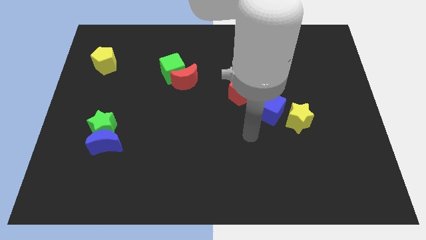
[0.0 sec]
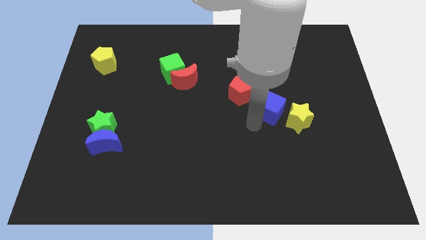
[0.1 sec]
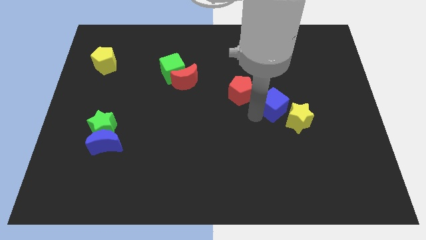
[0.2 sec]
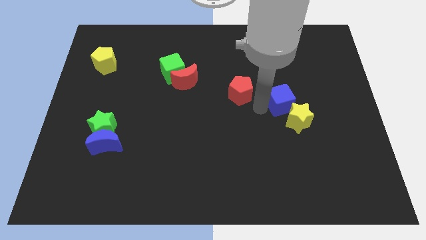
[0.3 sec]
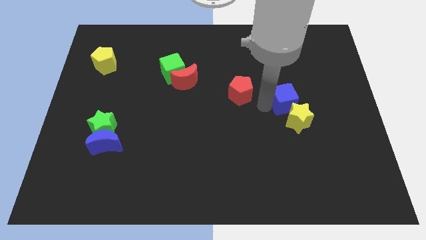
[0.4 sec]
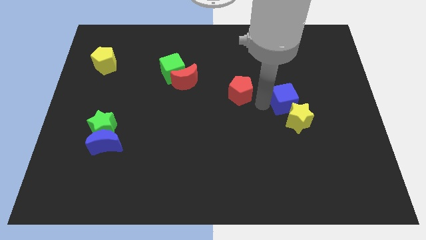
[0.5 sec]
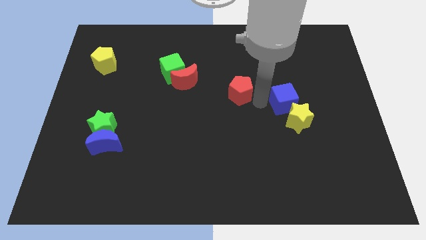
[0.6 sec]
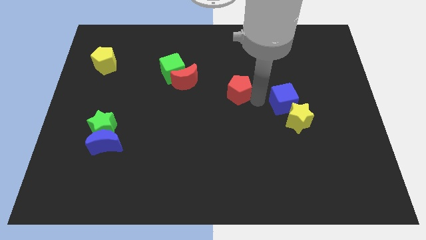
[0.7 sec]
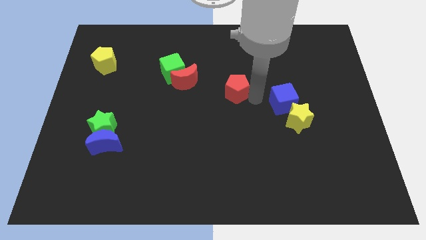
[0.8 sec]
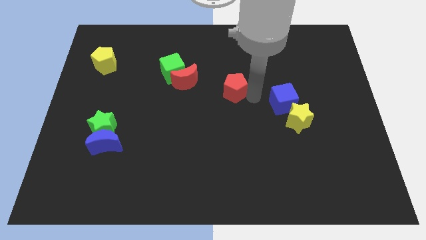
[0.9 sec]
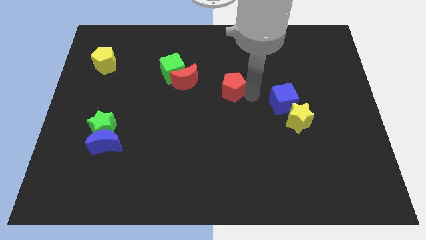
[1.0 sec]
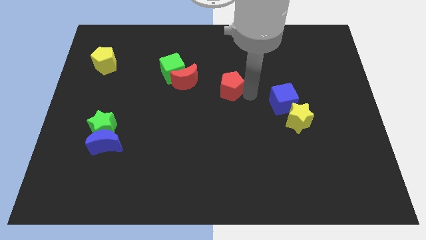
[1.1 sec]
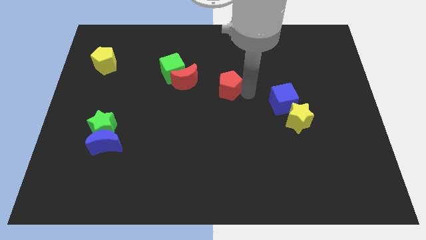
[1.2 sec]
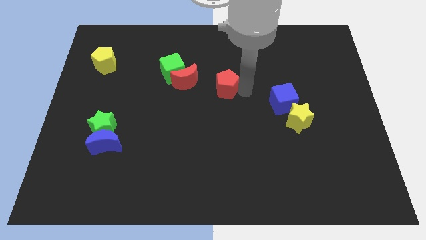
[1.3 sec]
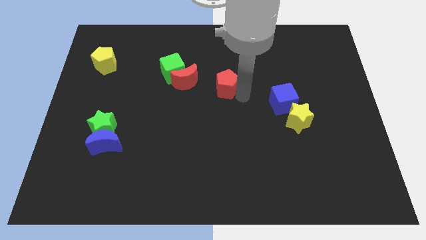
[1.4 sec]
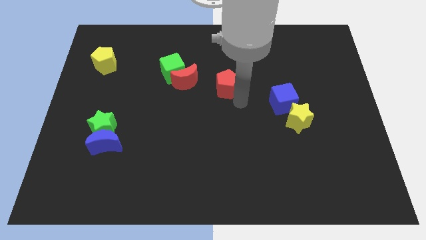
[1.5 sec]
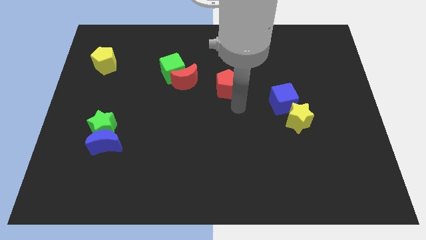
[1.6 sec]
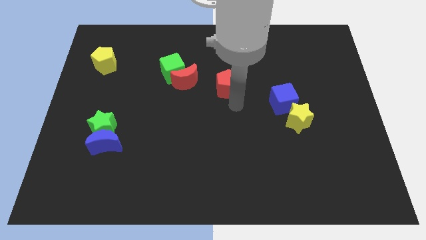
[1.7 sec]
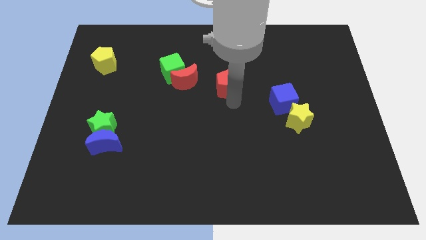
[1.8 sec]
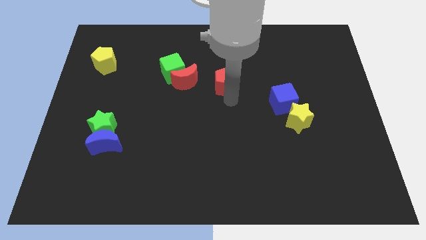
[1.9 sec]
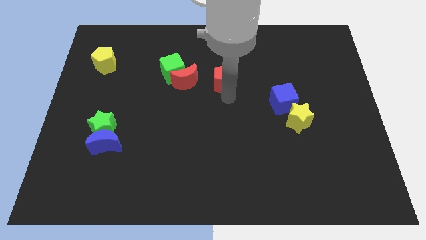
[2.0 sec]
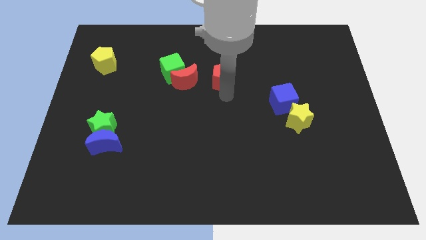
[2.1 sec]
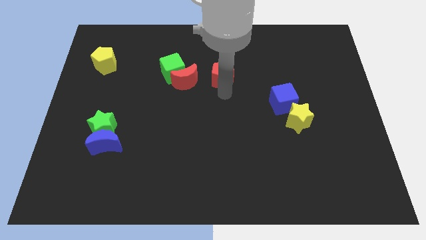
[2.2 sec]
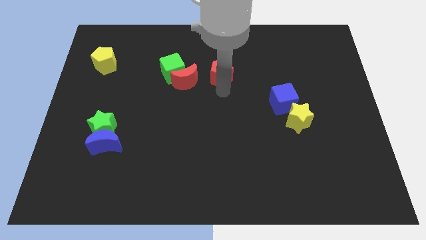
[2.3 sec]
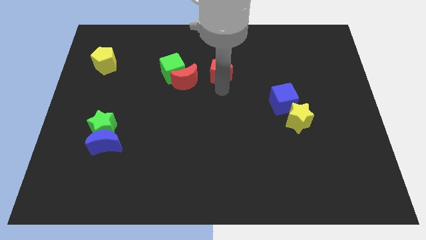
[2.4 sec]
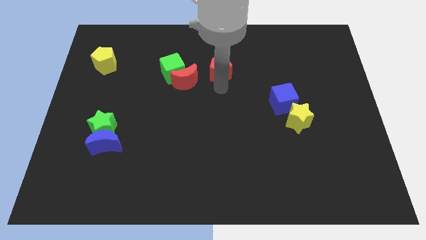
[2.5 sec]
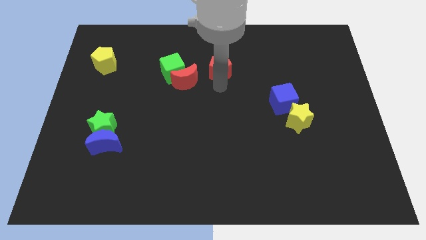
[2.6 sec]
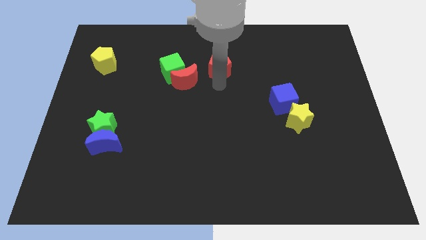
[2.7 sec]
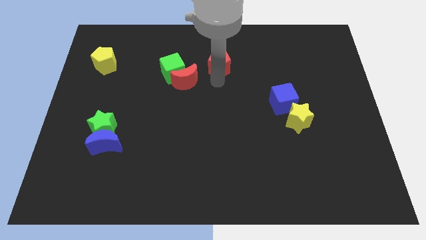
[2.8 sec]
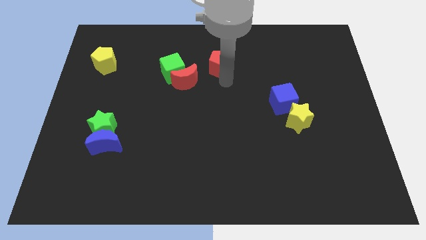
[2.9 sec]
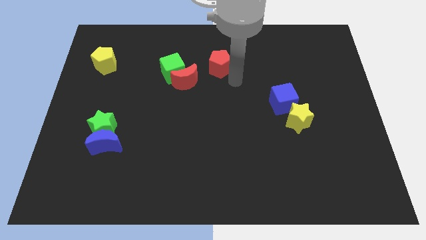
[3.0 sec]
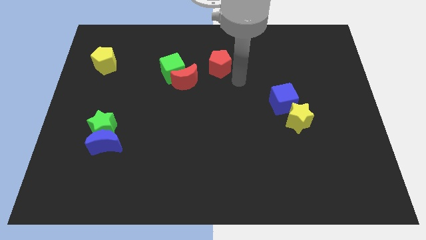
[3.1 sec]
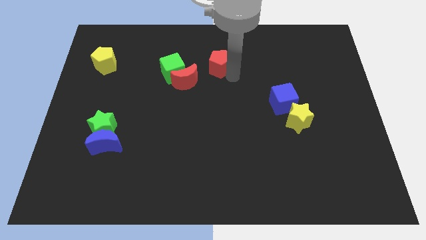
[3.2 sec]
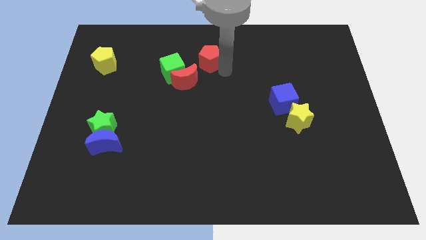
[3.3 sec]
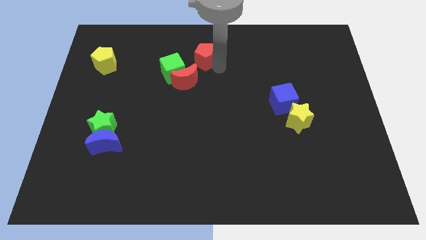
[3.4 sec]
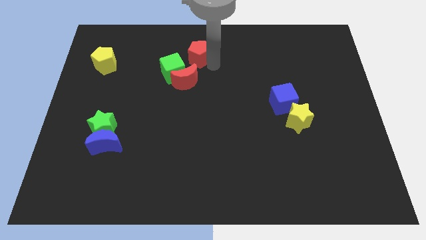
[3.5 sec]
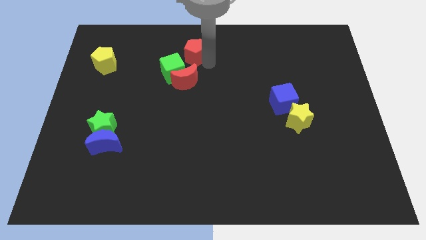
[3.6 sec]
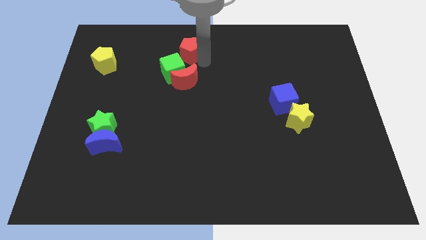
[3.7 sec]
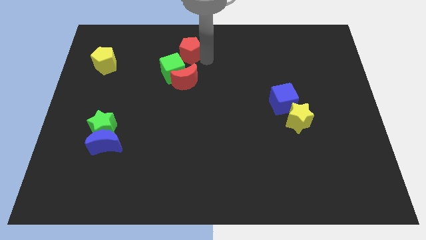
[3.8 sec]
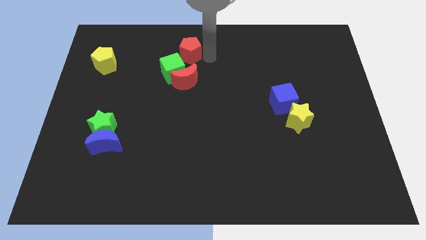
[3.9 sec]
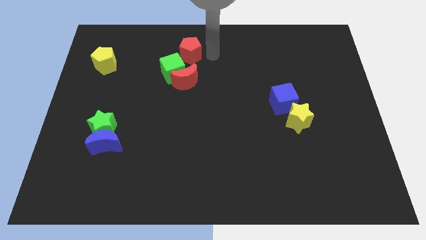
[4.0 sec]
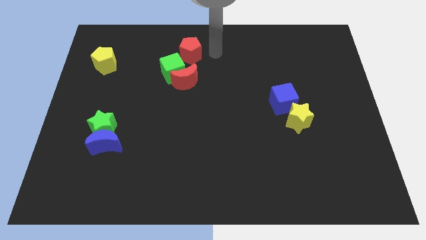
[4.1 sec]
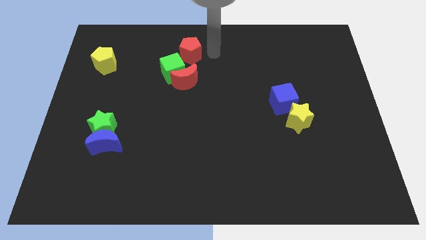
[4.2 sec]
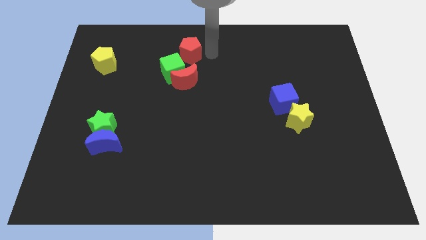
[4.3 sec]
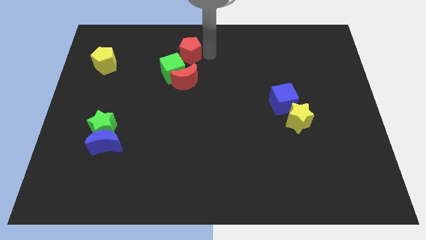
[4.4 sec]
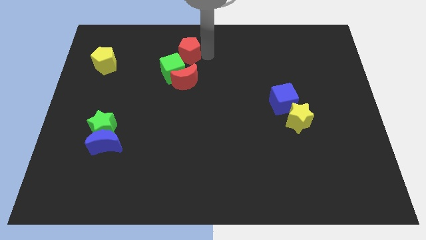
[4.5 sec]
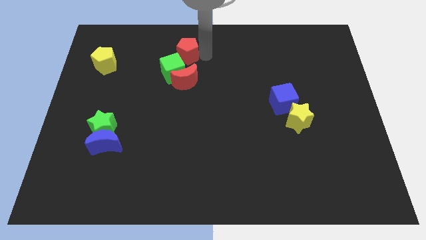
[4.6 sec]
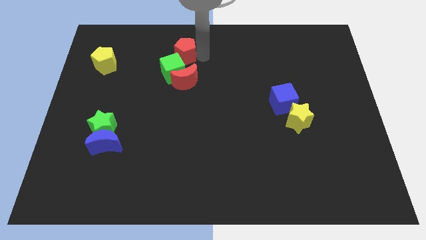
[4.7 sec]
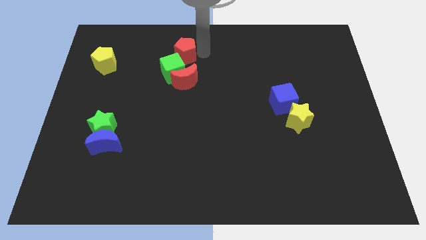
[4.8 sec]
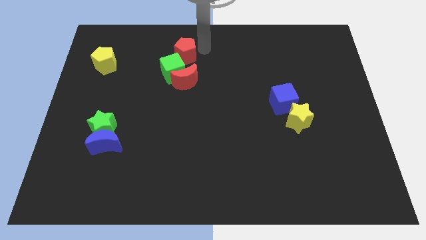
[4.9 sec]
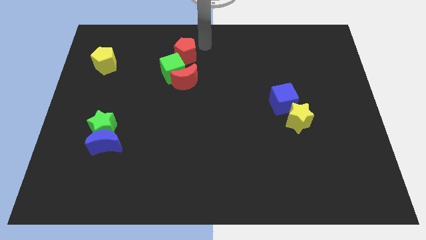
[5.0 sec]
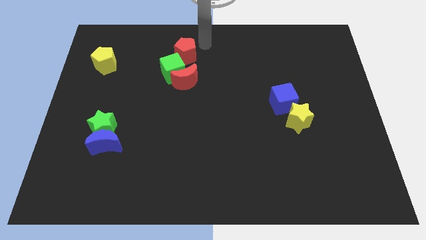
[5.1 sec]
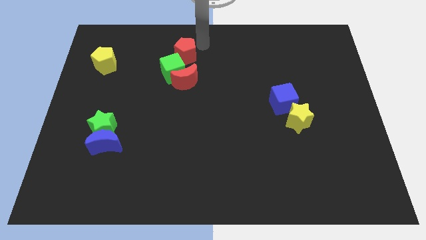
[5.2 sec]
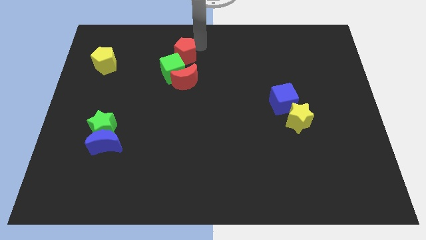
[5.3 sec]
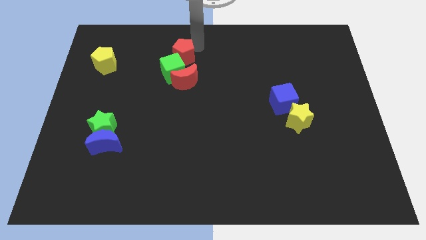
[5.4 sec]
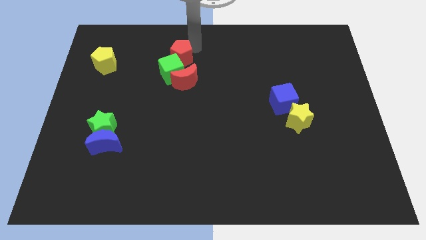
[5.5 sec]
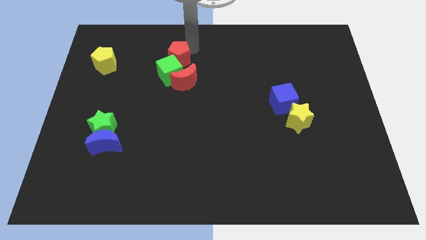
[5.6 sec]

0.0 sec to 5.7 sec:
put the red pentagon diagonally up and to the left of the red moon

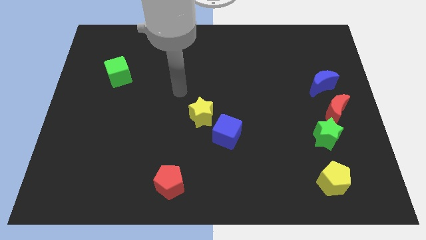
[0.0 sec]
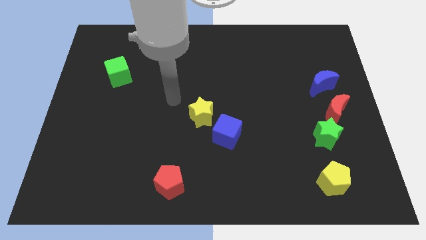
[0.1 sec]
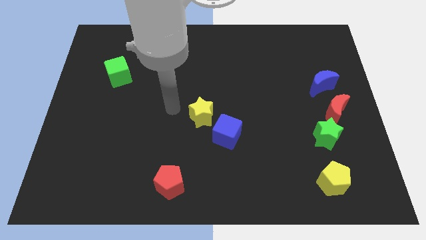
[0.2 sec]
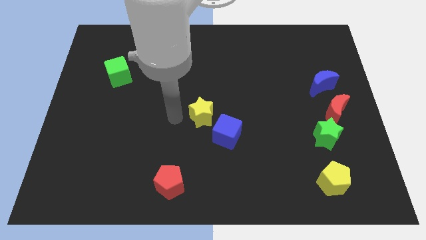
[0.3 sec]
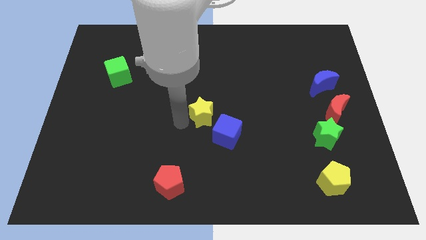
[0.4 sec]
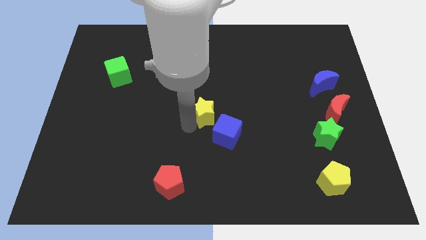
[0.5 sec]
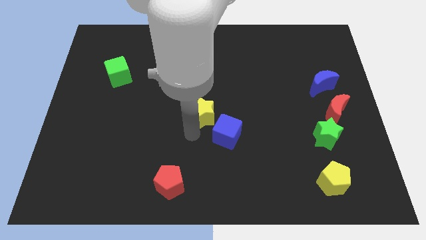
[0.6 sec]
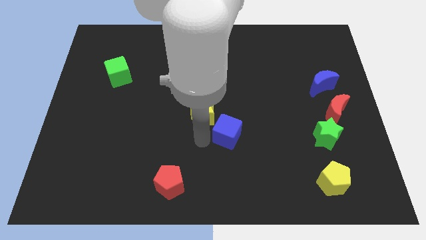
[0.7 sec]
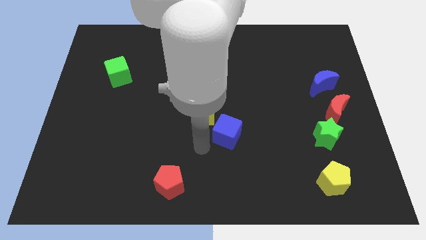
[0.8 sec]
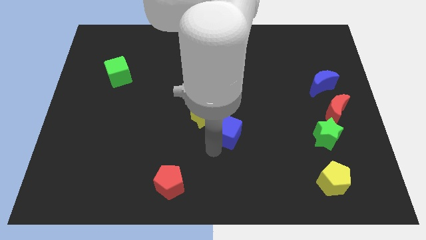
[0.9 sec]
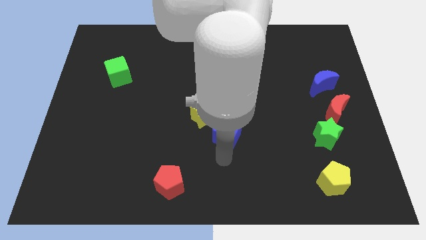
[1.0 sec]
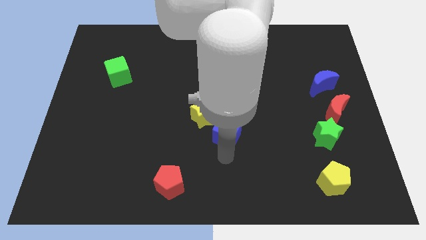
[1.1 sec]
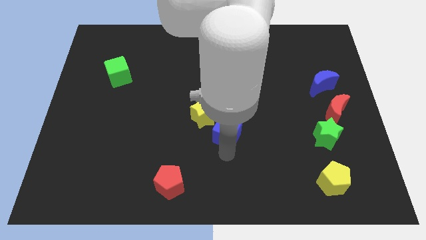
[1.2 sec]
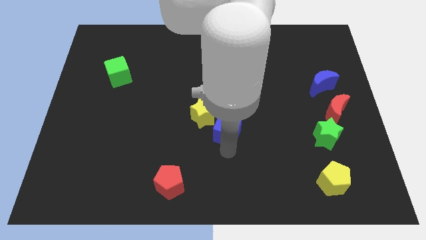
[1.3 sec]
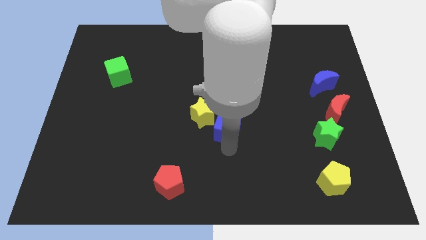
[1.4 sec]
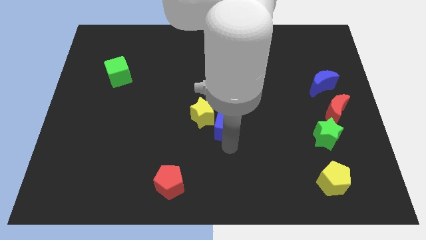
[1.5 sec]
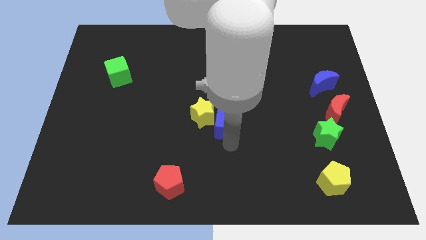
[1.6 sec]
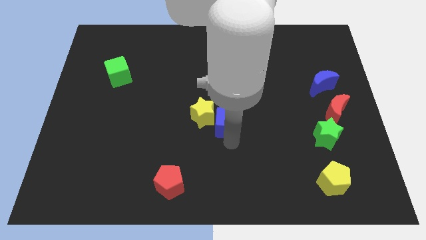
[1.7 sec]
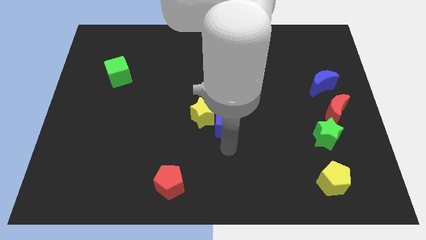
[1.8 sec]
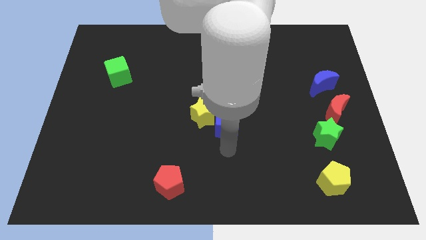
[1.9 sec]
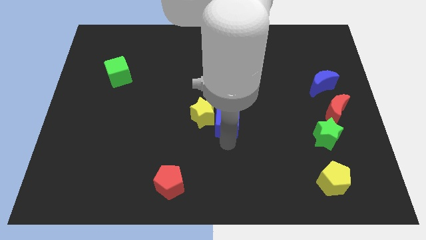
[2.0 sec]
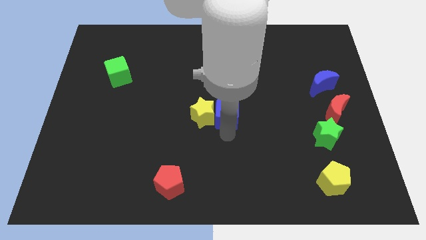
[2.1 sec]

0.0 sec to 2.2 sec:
move the blue cube diagonally up and to the right of the yellow star
